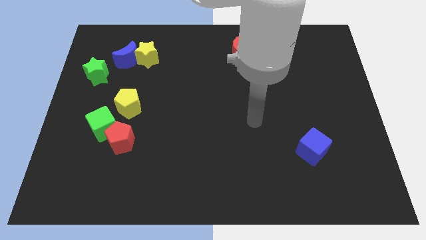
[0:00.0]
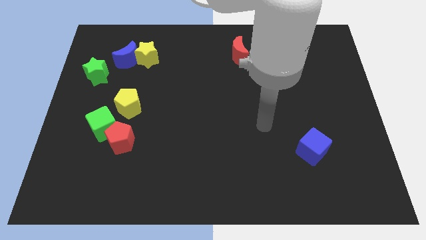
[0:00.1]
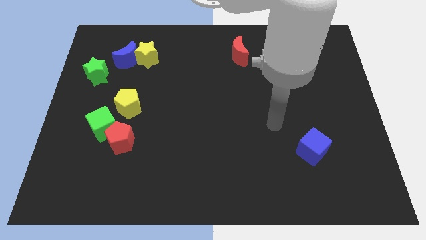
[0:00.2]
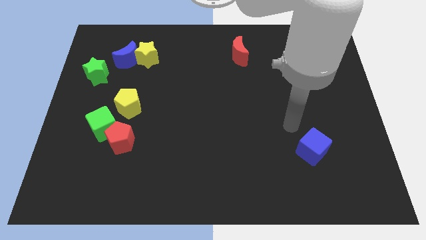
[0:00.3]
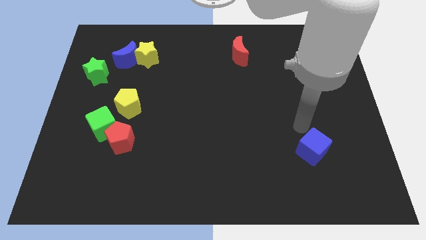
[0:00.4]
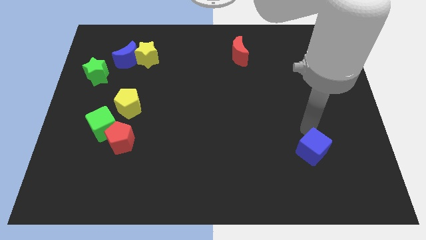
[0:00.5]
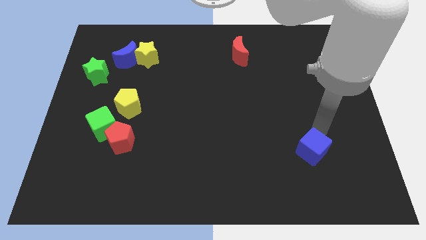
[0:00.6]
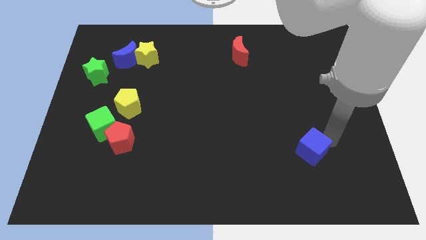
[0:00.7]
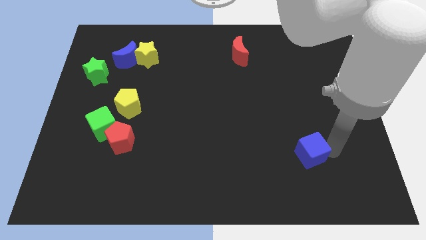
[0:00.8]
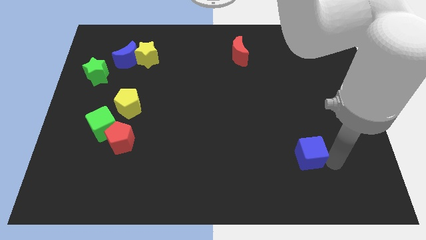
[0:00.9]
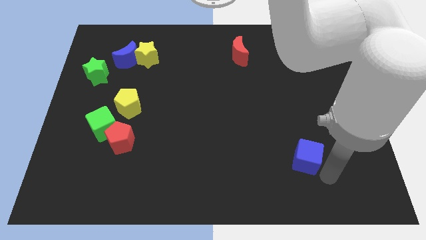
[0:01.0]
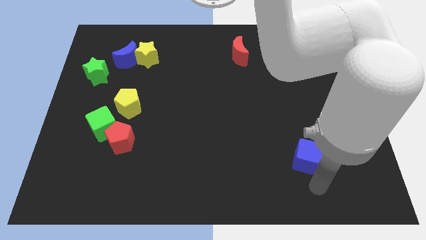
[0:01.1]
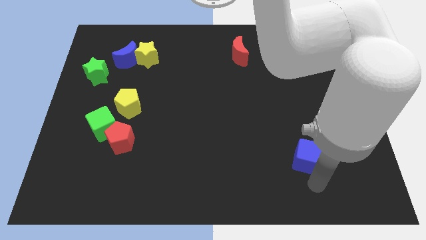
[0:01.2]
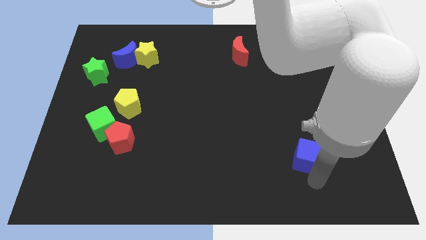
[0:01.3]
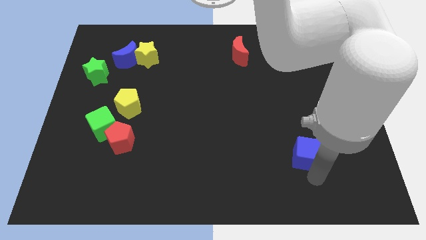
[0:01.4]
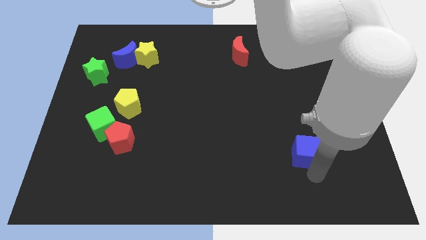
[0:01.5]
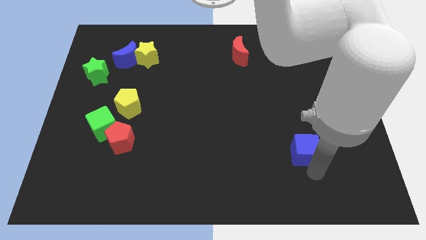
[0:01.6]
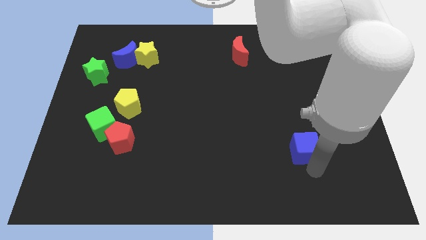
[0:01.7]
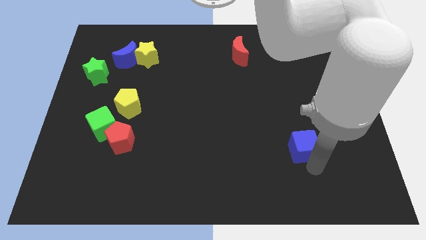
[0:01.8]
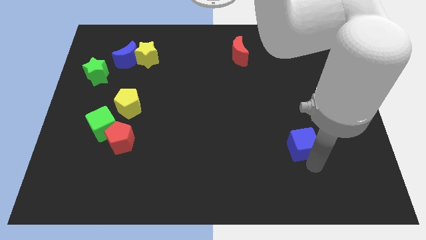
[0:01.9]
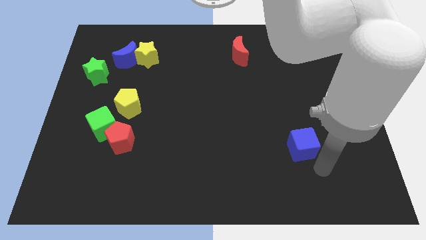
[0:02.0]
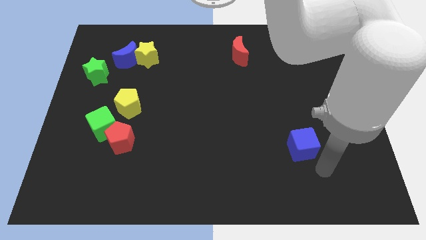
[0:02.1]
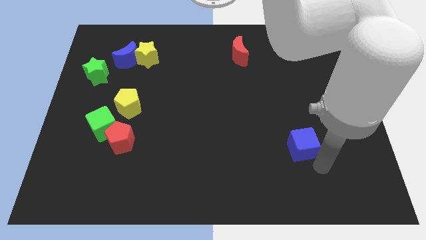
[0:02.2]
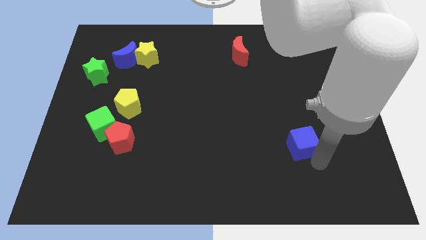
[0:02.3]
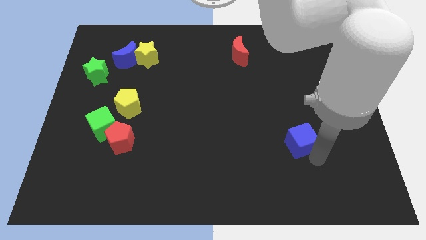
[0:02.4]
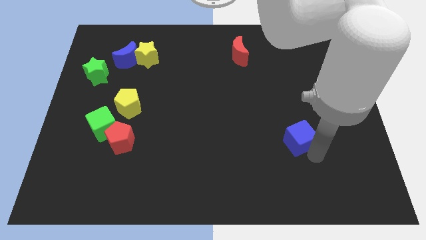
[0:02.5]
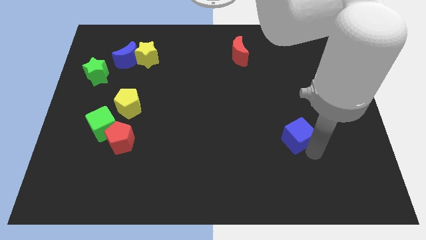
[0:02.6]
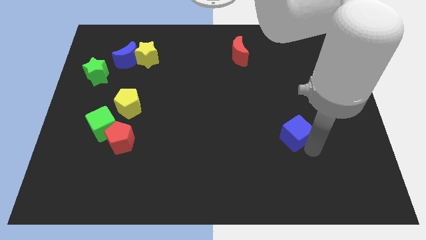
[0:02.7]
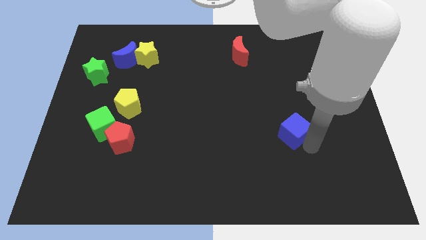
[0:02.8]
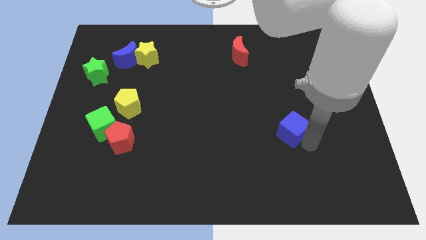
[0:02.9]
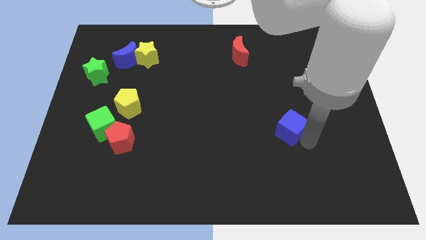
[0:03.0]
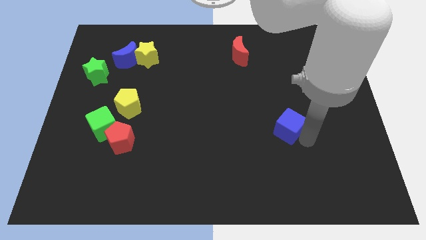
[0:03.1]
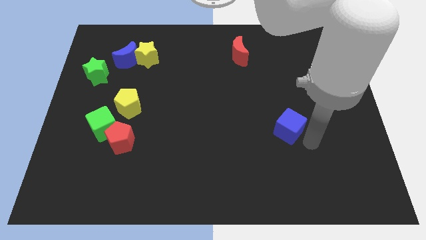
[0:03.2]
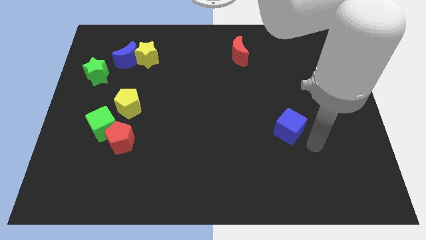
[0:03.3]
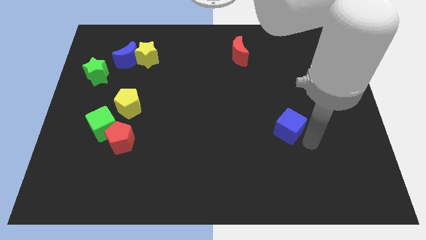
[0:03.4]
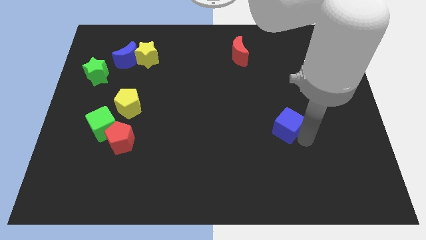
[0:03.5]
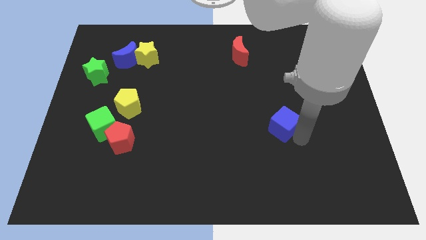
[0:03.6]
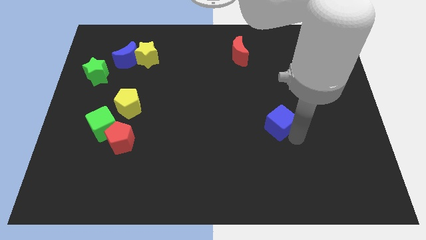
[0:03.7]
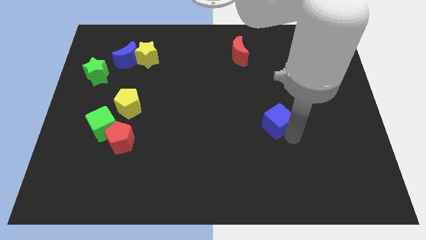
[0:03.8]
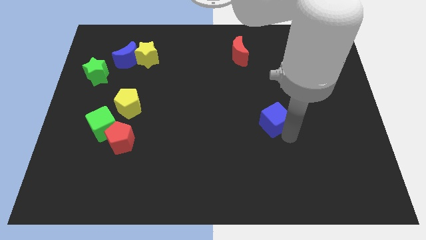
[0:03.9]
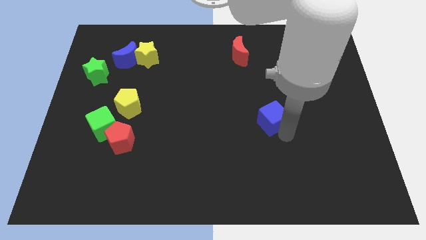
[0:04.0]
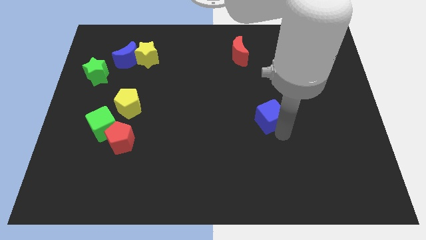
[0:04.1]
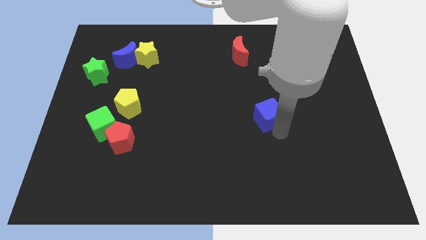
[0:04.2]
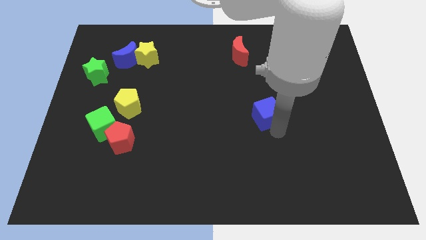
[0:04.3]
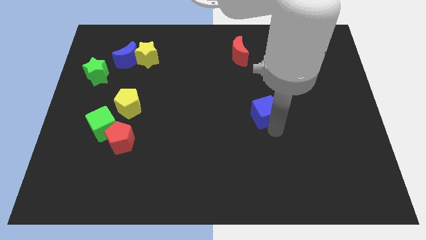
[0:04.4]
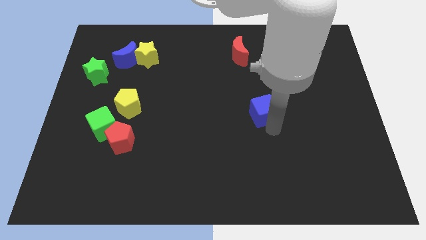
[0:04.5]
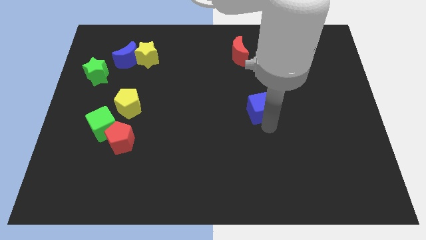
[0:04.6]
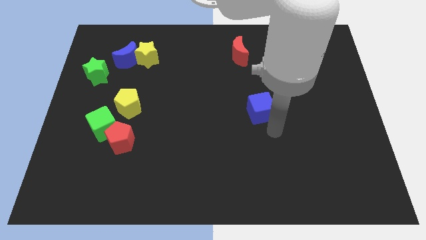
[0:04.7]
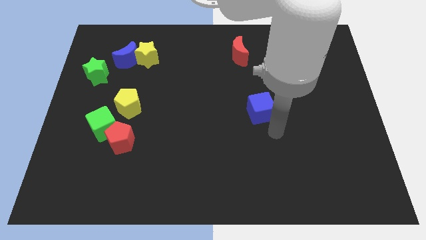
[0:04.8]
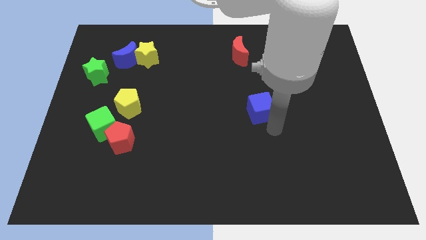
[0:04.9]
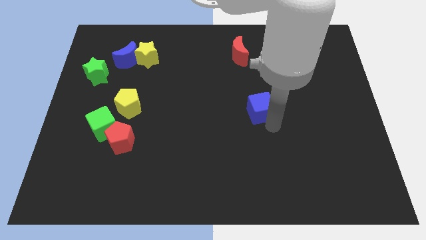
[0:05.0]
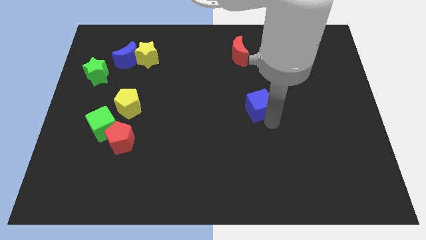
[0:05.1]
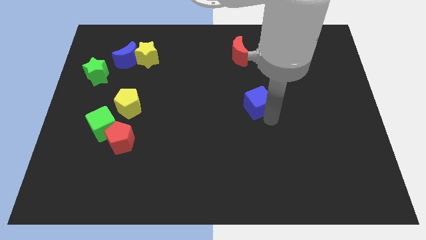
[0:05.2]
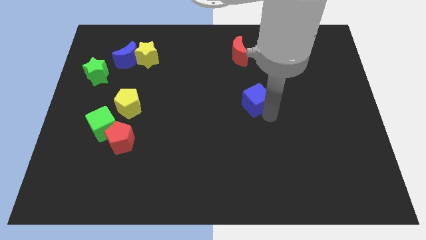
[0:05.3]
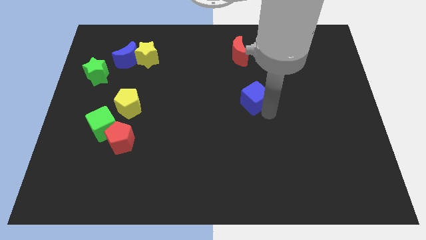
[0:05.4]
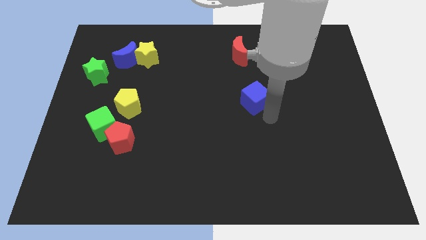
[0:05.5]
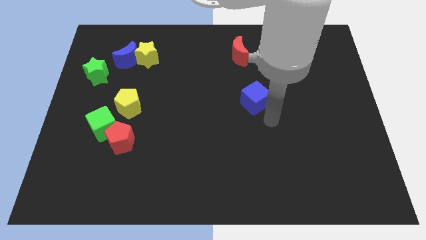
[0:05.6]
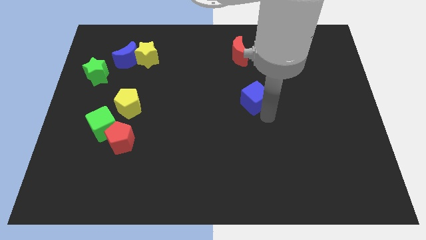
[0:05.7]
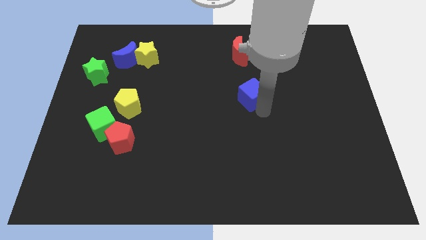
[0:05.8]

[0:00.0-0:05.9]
put the blue cube to the bottom of the red moon

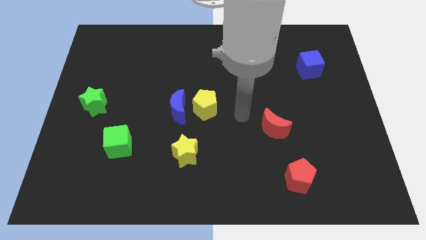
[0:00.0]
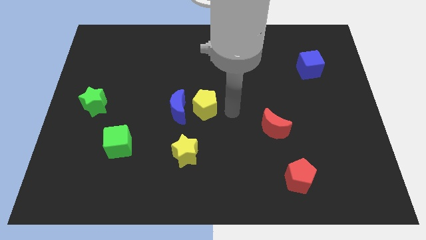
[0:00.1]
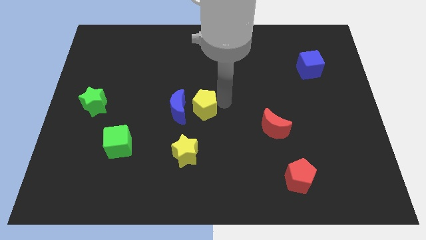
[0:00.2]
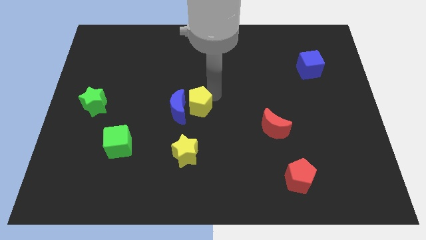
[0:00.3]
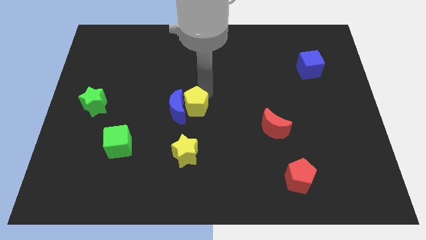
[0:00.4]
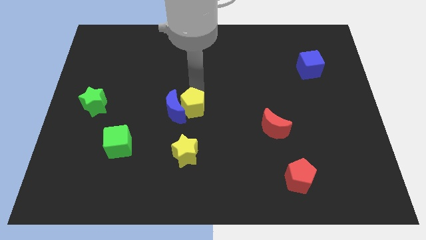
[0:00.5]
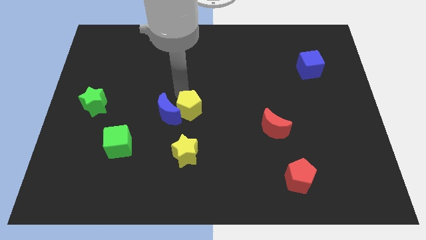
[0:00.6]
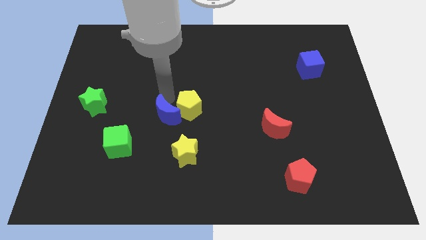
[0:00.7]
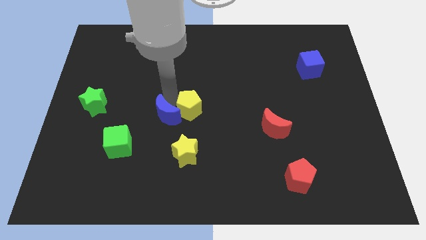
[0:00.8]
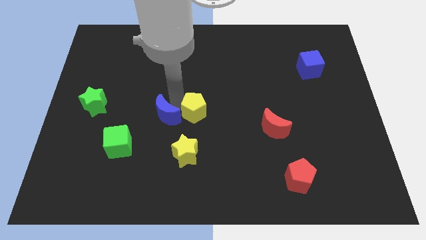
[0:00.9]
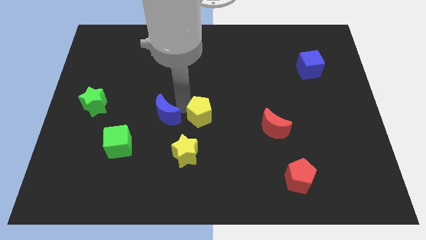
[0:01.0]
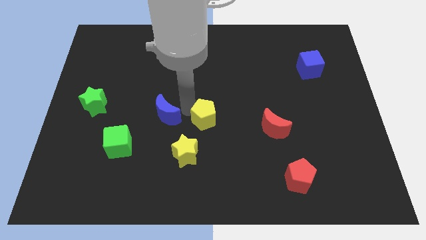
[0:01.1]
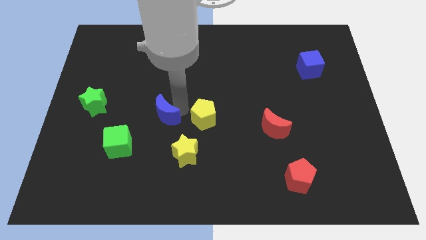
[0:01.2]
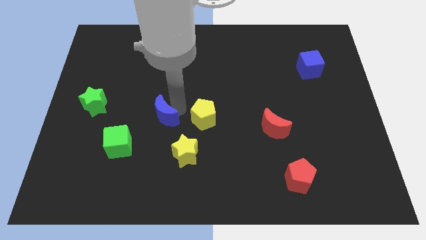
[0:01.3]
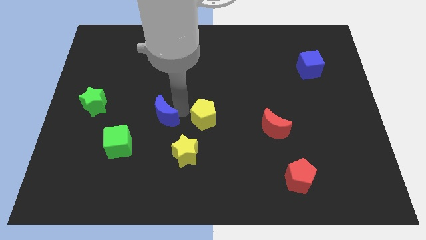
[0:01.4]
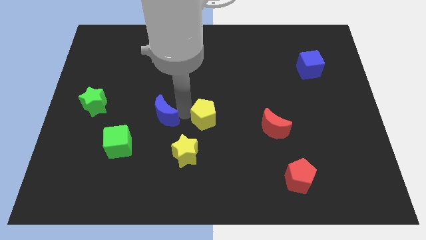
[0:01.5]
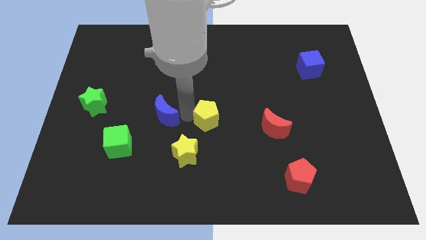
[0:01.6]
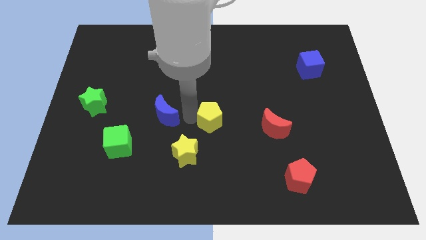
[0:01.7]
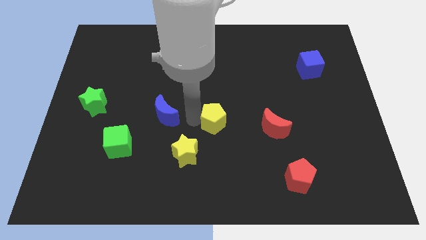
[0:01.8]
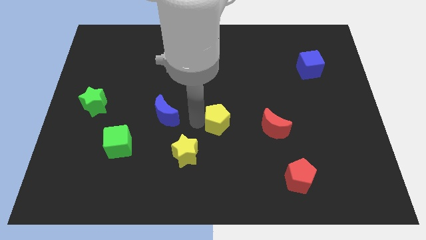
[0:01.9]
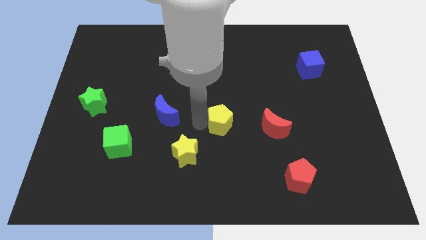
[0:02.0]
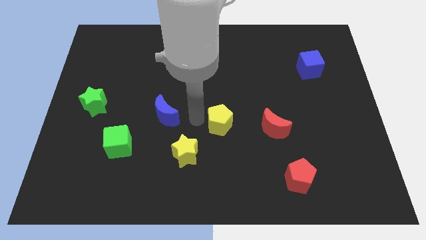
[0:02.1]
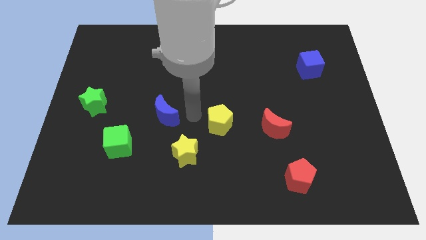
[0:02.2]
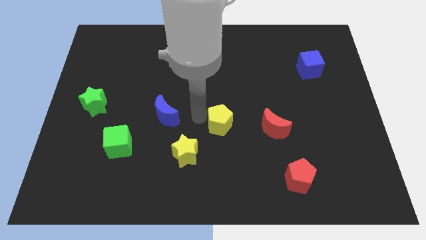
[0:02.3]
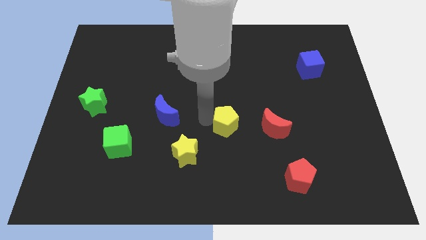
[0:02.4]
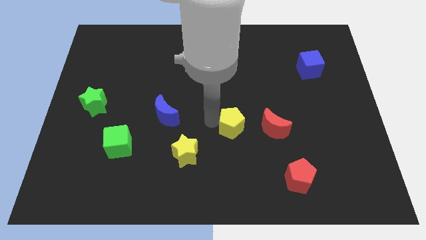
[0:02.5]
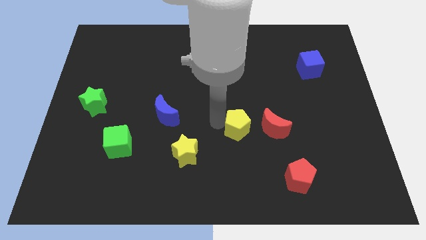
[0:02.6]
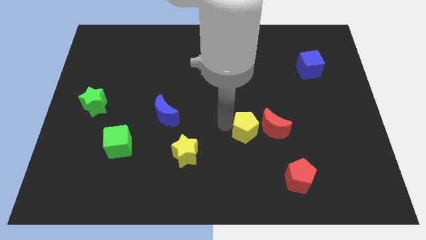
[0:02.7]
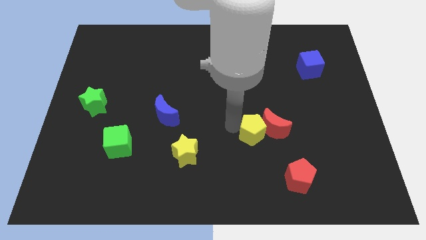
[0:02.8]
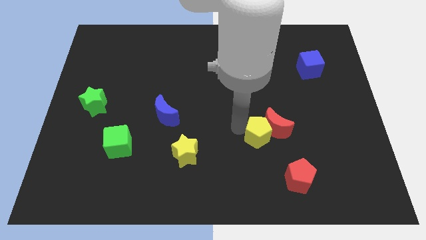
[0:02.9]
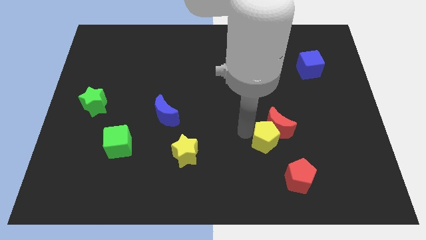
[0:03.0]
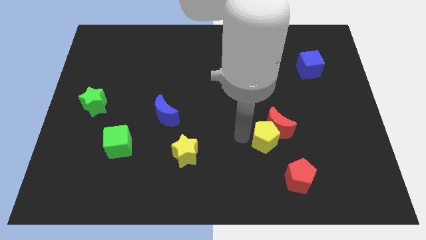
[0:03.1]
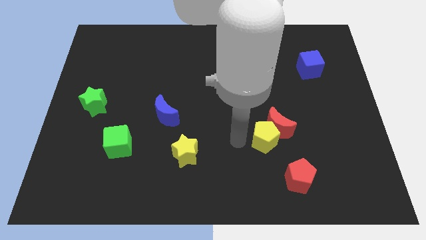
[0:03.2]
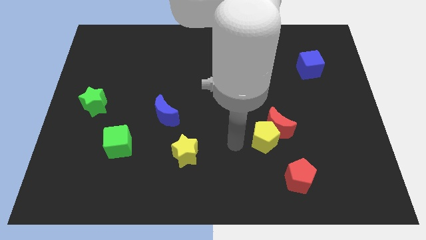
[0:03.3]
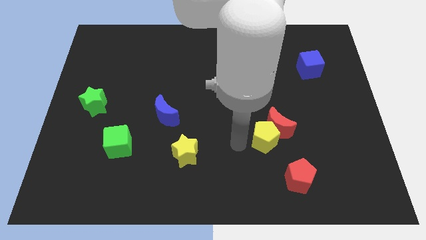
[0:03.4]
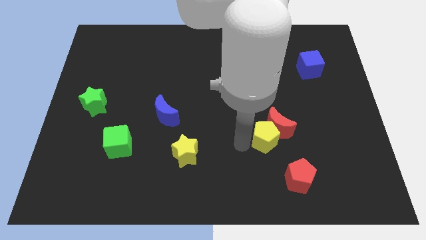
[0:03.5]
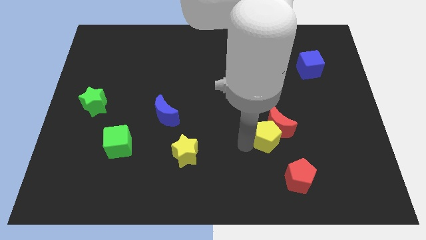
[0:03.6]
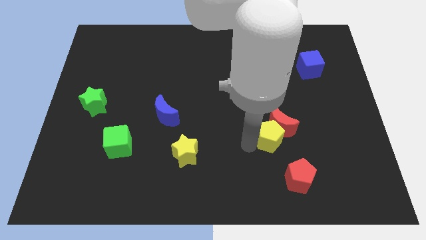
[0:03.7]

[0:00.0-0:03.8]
put the yellow pentagon to the top side of the red pentagon
